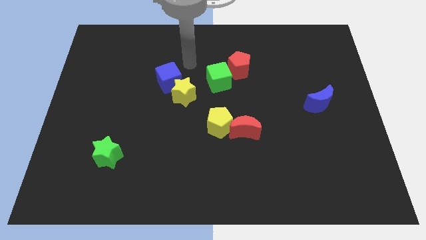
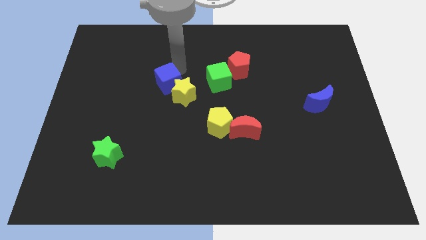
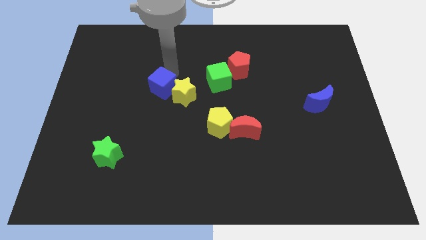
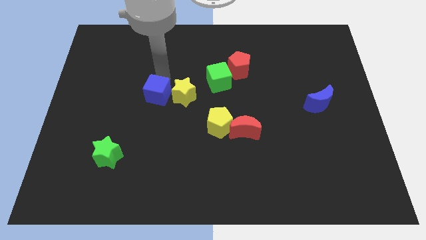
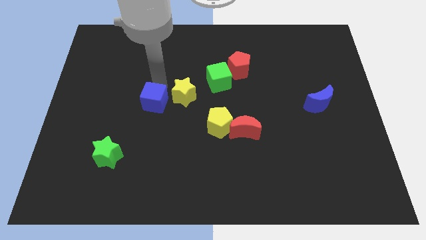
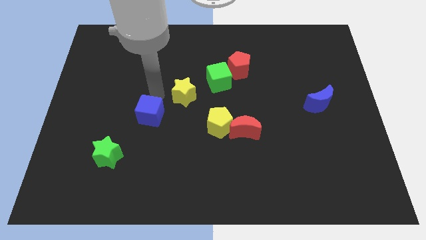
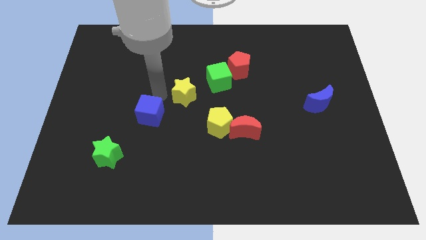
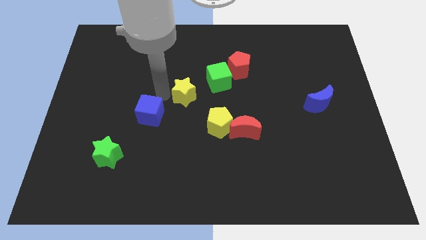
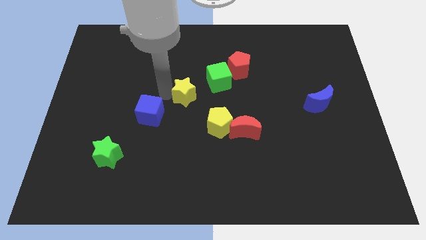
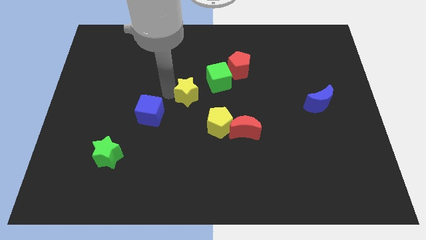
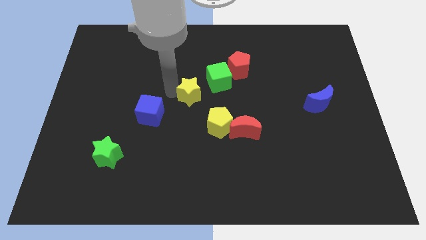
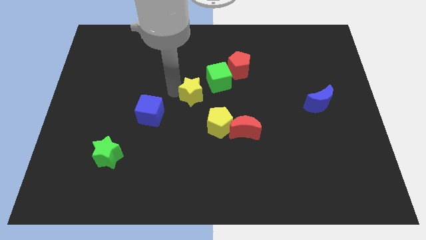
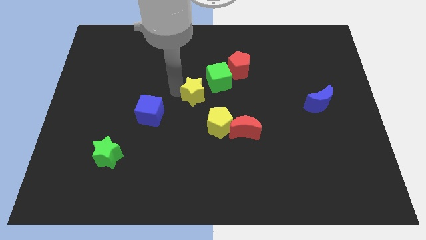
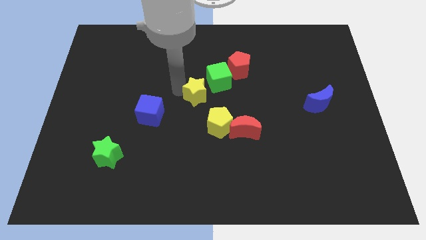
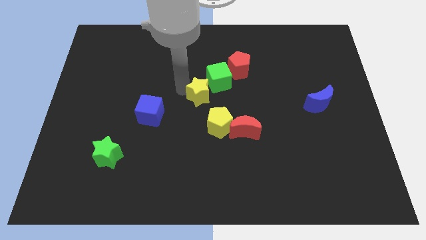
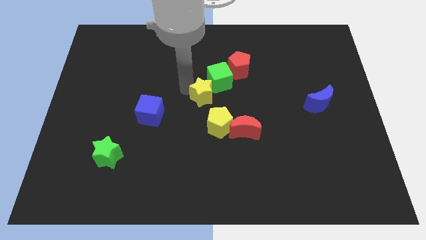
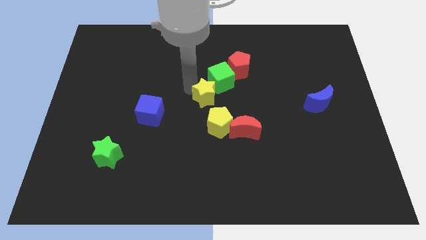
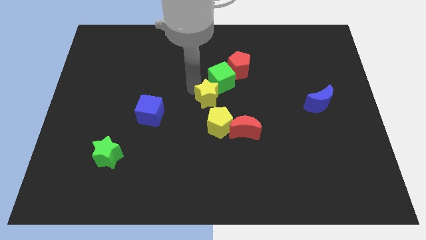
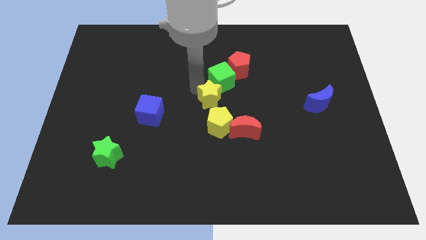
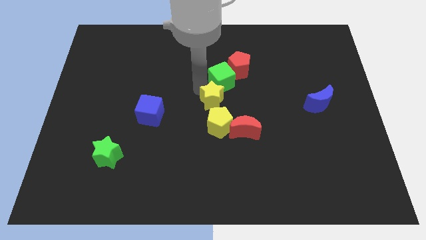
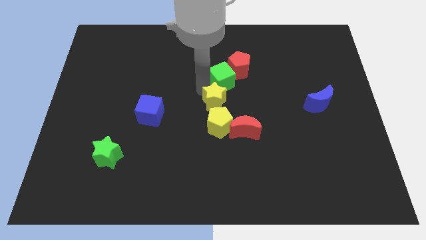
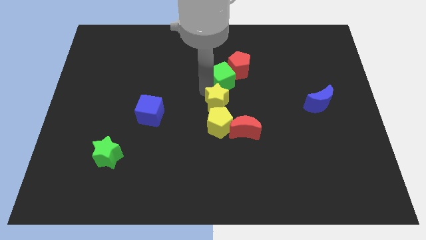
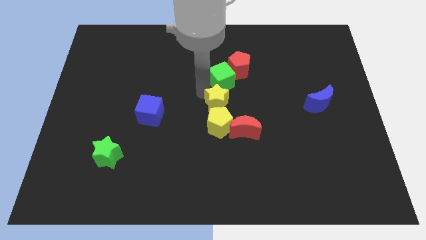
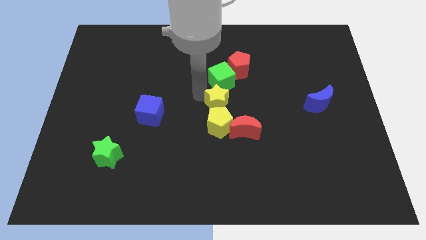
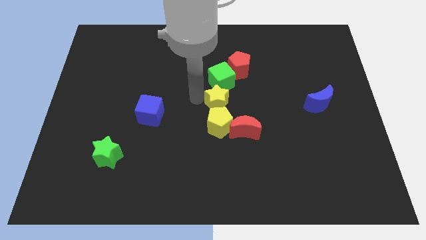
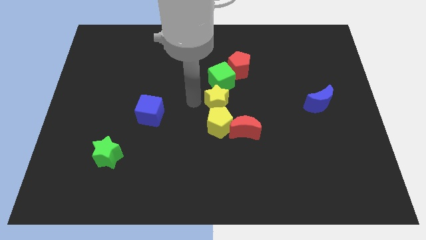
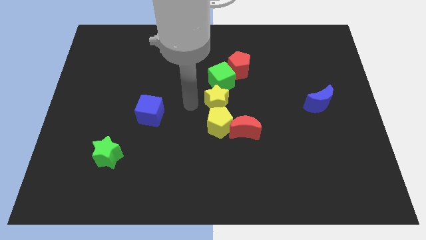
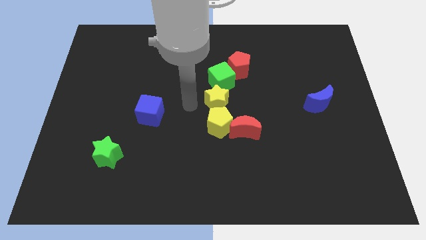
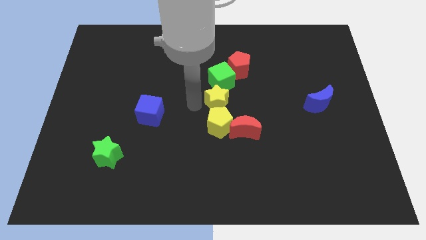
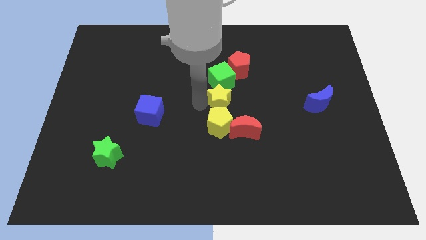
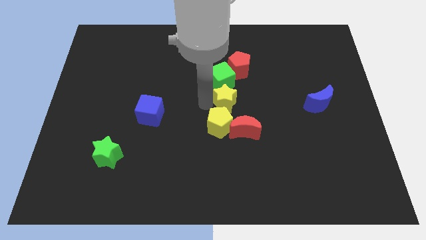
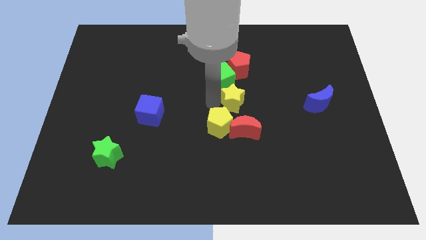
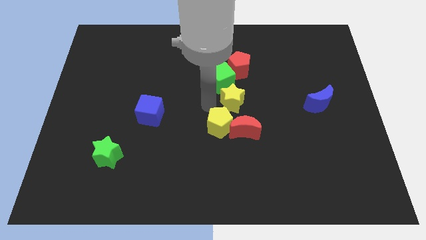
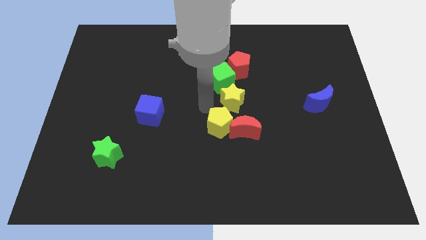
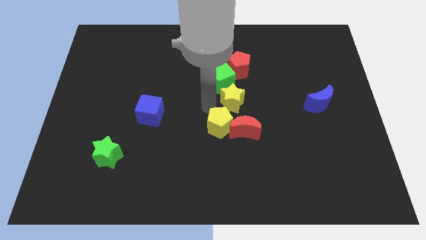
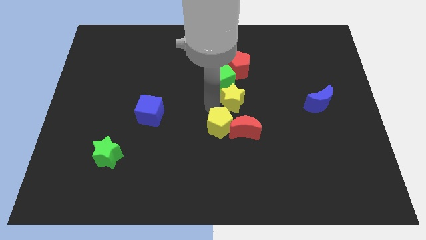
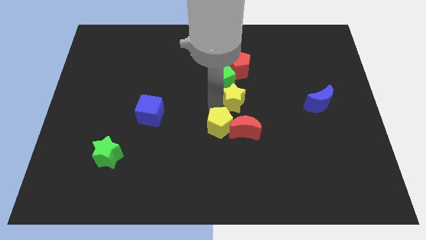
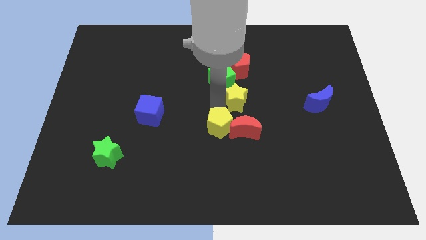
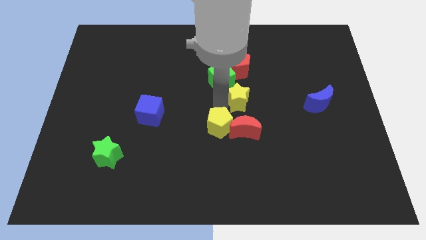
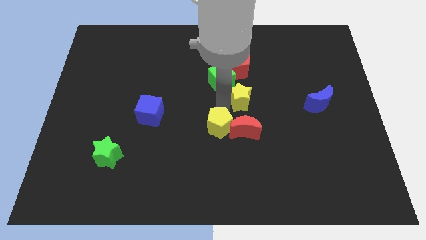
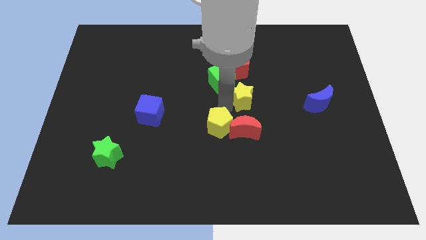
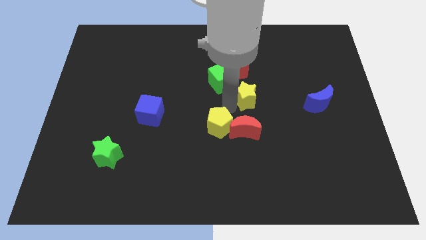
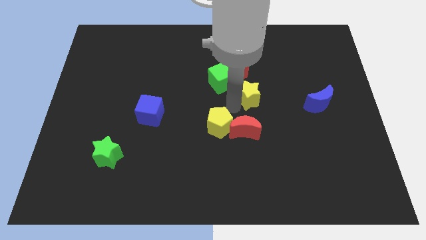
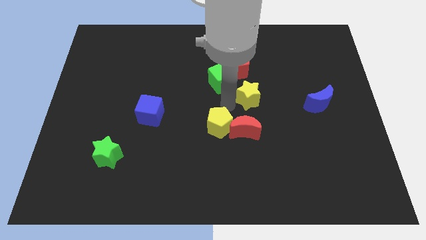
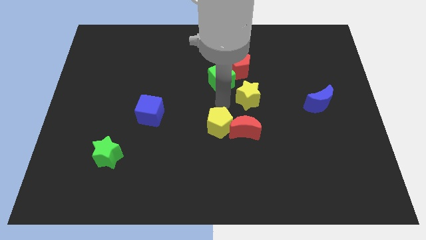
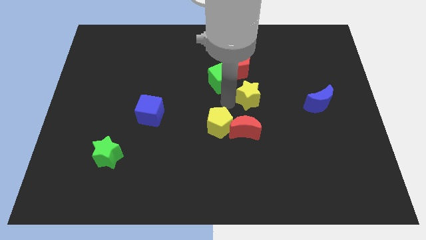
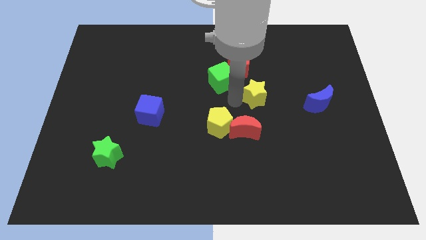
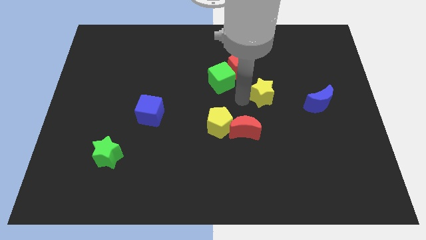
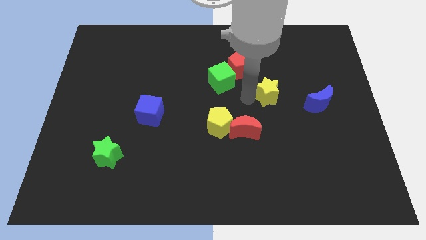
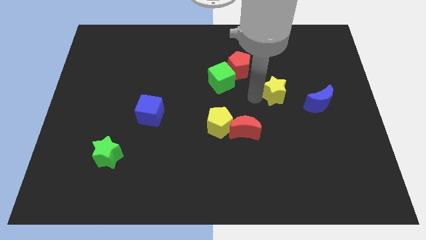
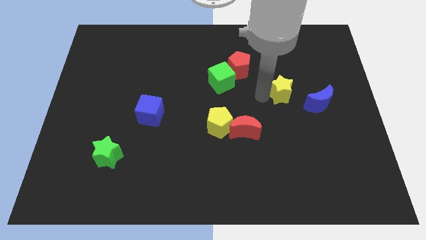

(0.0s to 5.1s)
push the yellow star to the top left side of the blue moon

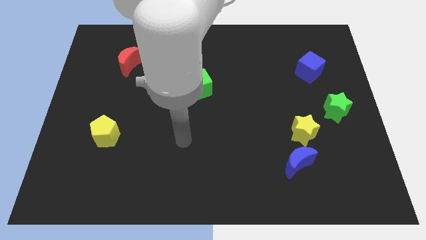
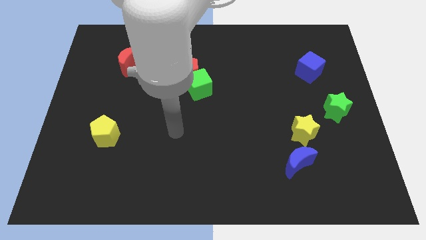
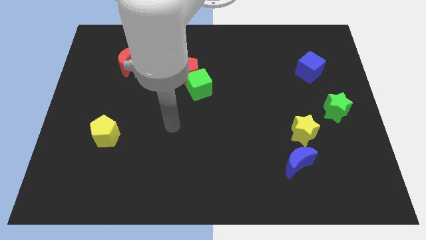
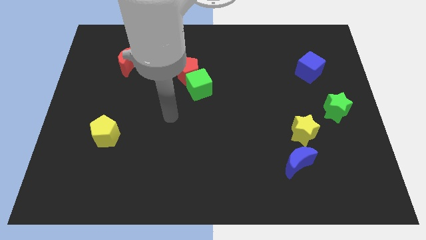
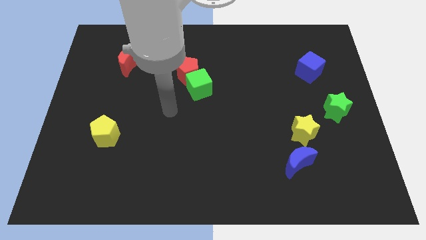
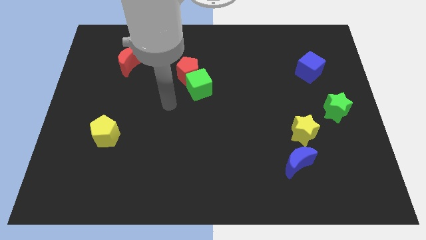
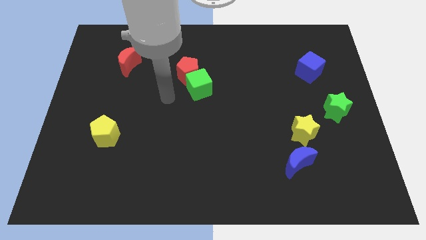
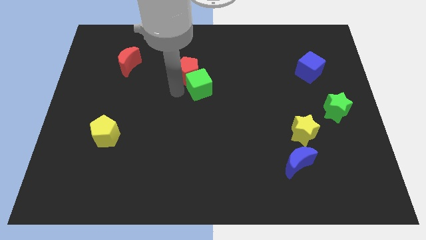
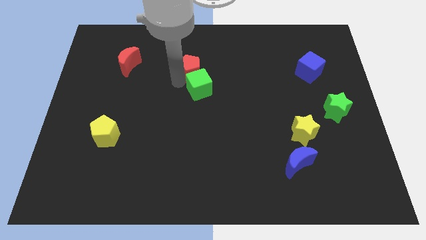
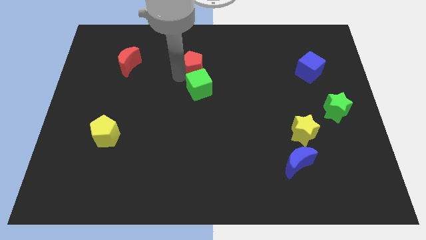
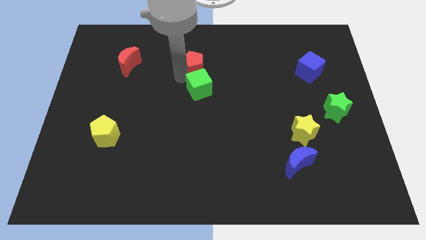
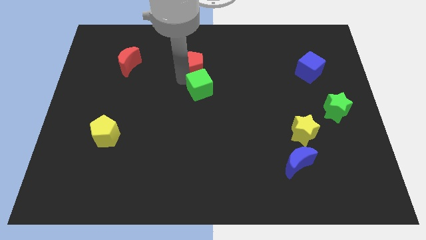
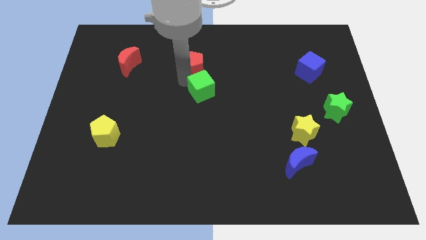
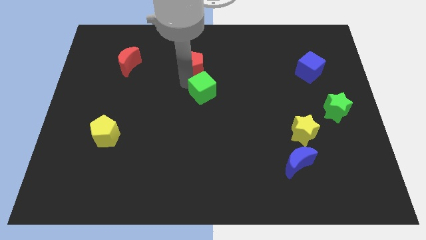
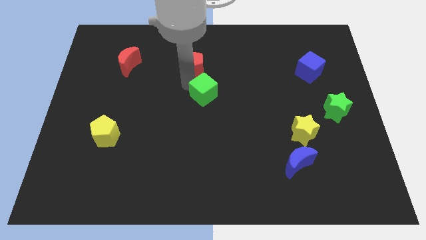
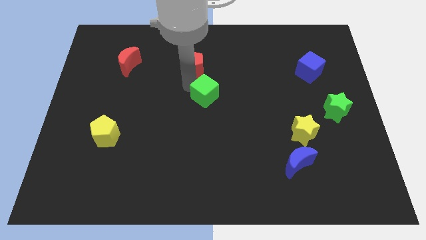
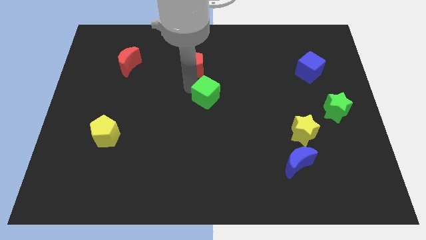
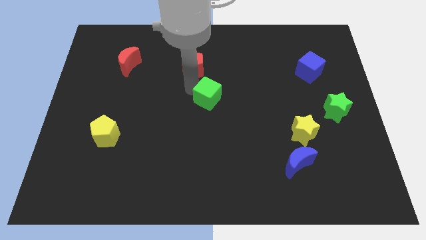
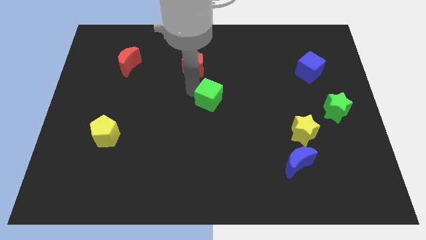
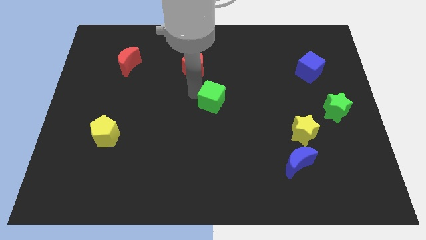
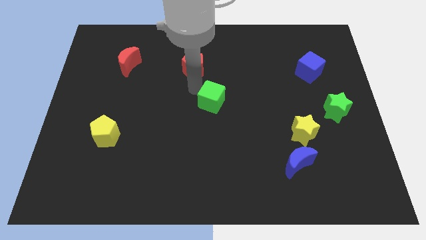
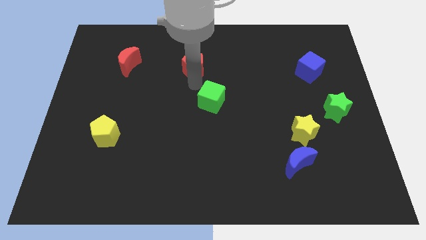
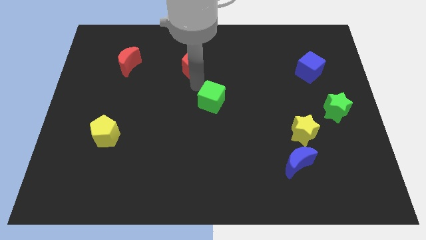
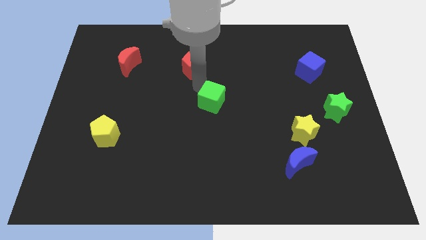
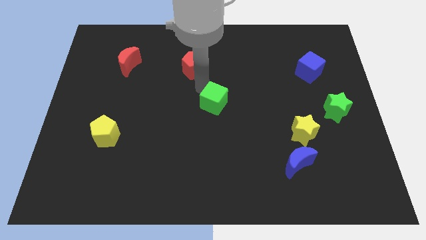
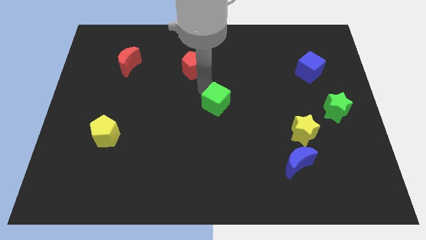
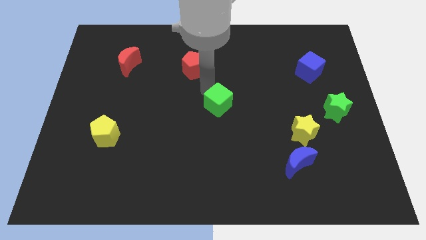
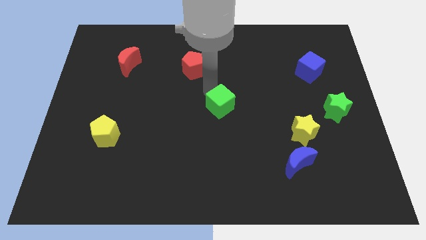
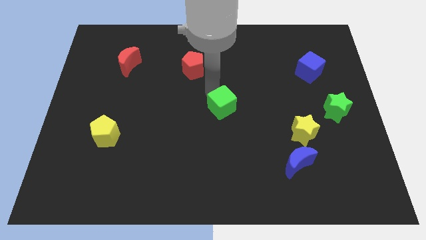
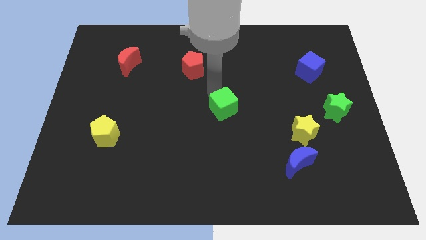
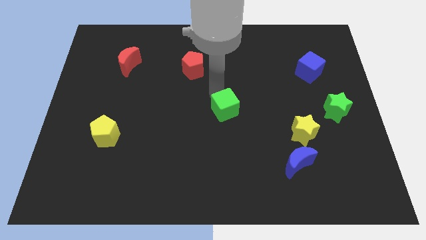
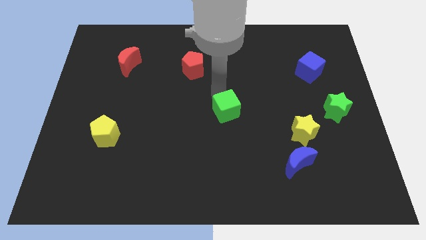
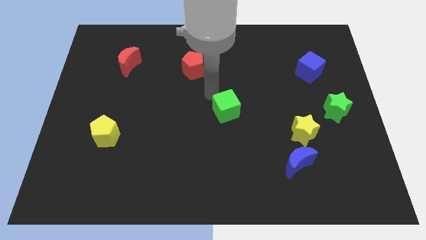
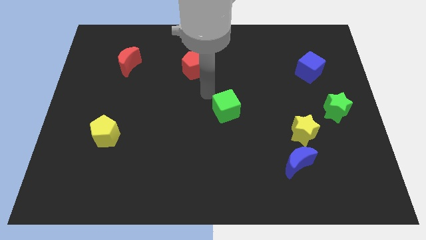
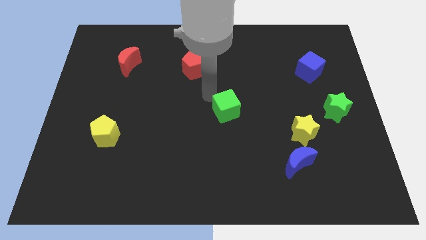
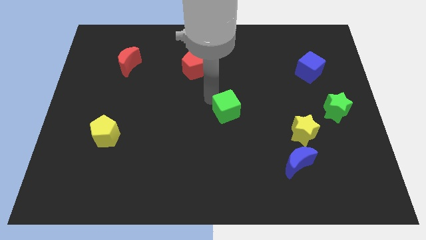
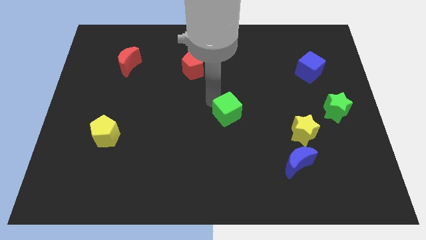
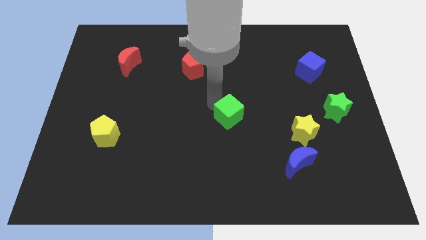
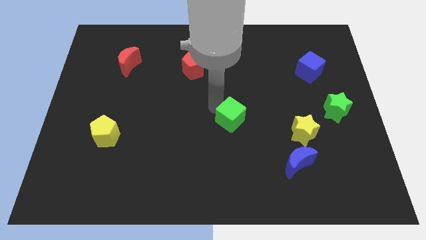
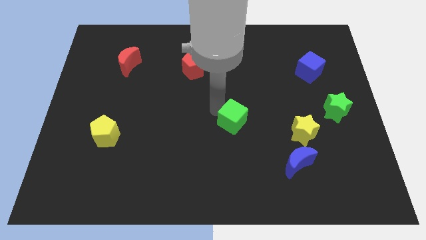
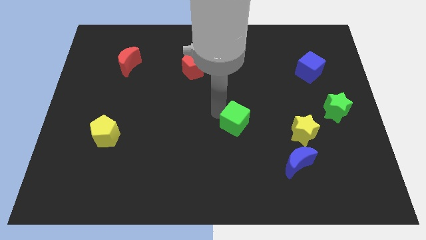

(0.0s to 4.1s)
slide the green cube left of the yellow star
